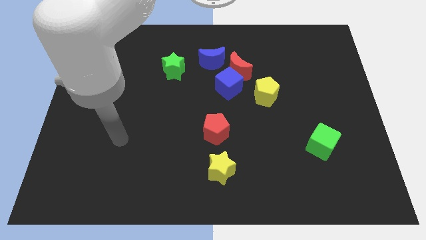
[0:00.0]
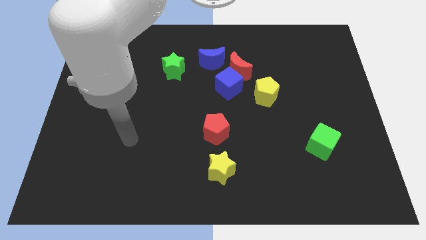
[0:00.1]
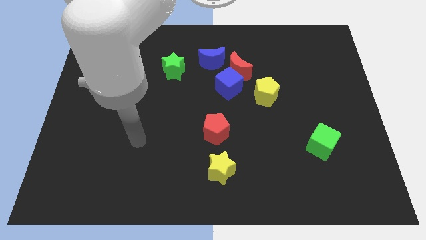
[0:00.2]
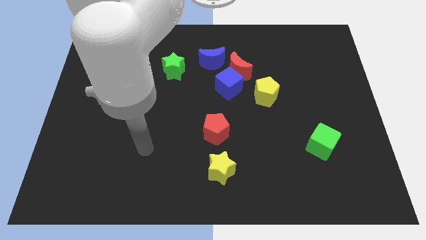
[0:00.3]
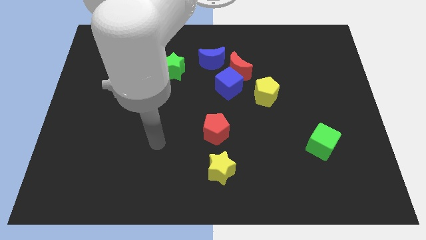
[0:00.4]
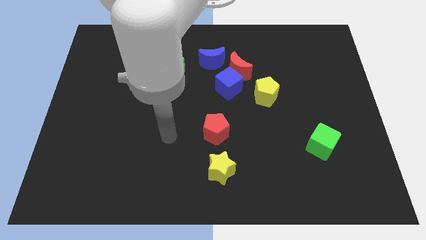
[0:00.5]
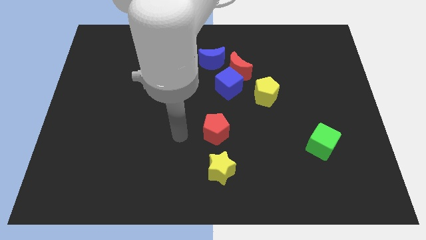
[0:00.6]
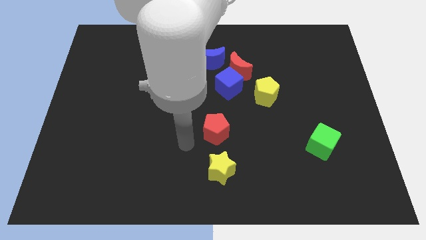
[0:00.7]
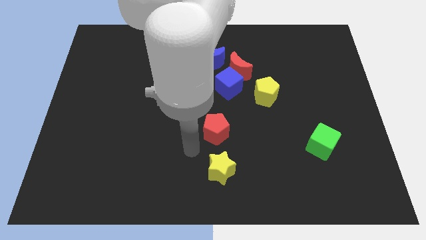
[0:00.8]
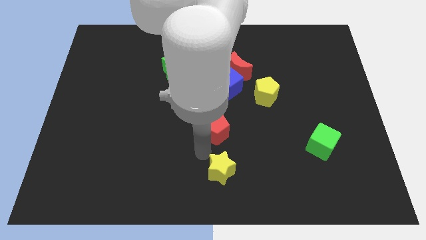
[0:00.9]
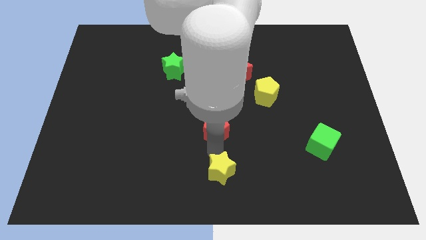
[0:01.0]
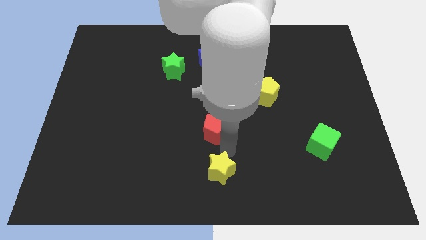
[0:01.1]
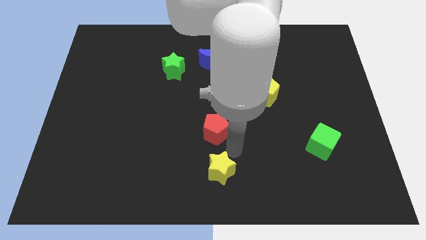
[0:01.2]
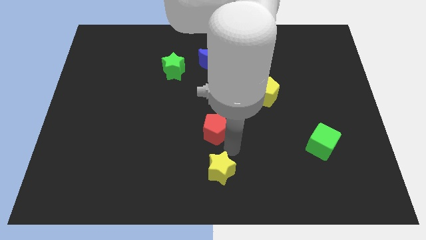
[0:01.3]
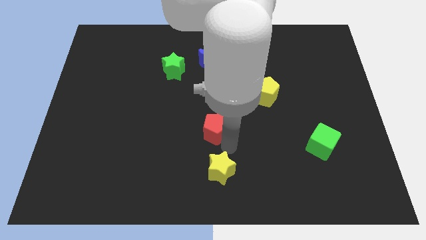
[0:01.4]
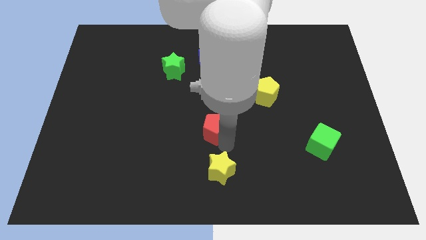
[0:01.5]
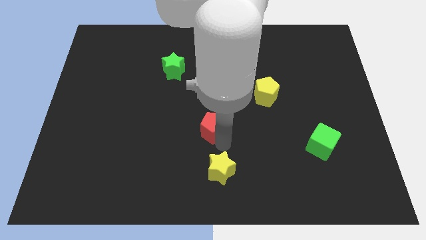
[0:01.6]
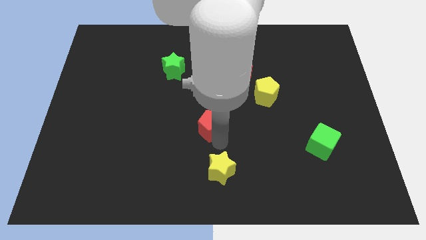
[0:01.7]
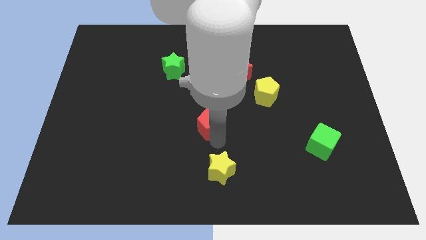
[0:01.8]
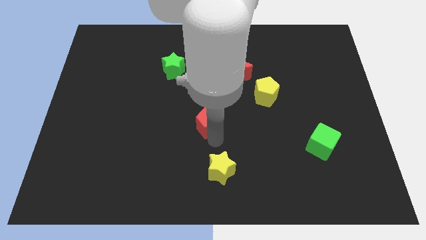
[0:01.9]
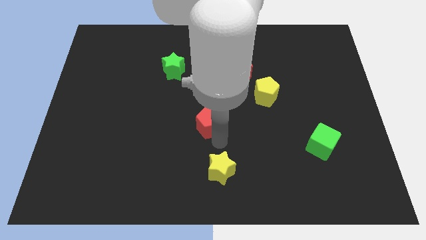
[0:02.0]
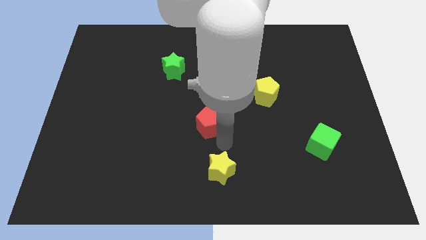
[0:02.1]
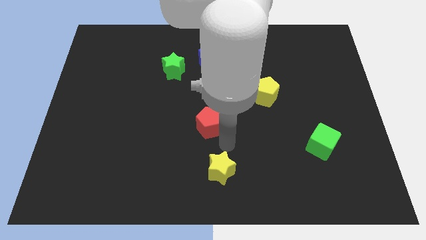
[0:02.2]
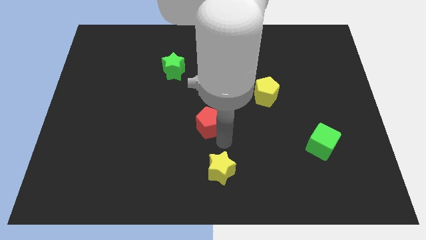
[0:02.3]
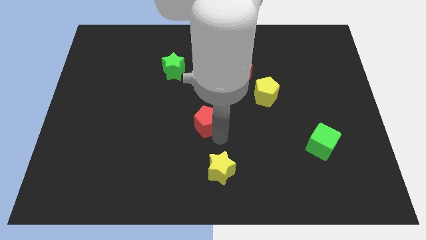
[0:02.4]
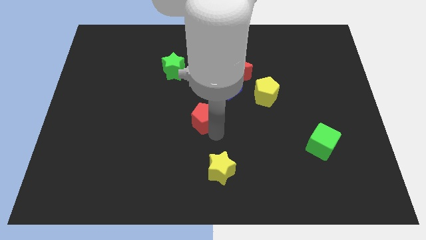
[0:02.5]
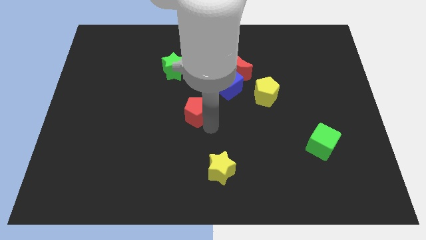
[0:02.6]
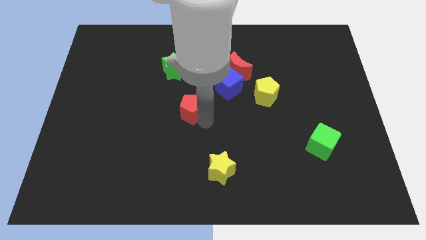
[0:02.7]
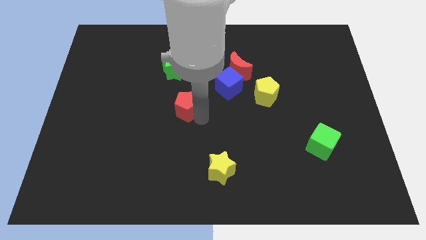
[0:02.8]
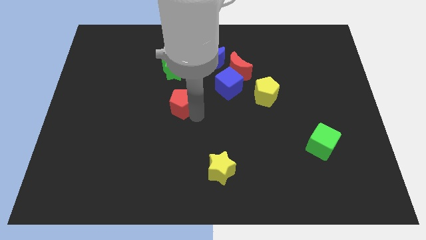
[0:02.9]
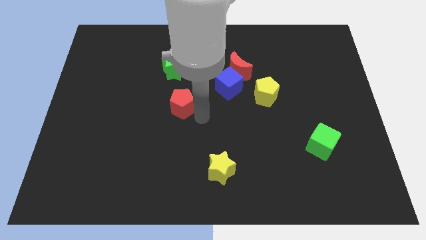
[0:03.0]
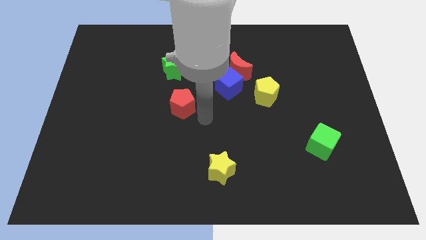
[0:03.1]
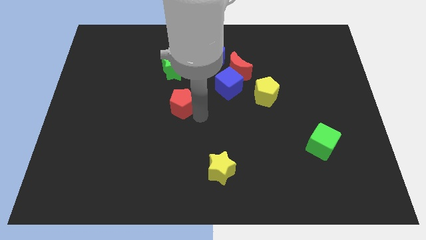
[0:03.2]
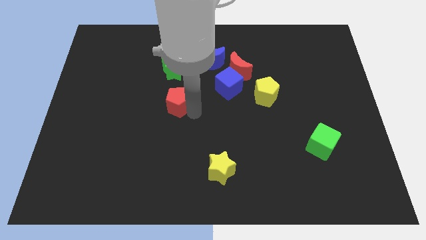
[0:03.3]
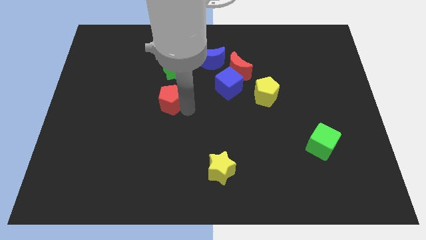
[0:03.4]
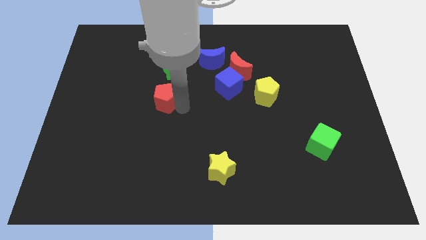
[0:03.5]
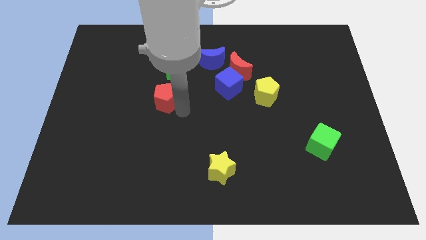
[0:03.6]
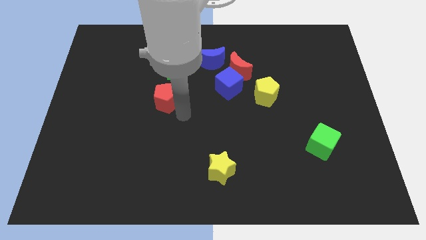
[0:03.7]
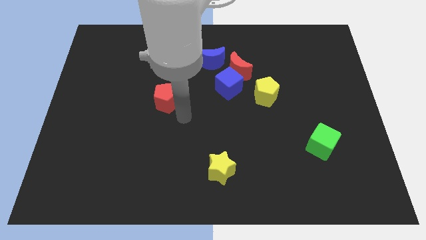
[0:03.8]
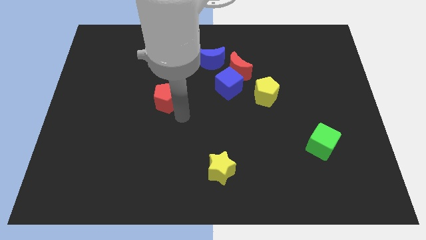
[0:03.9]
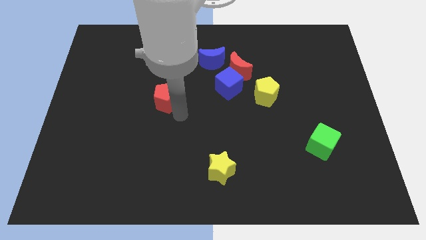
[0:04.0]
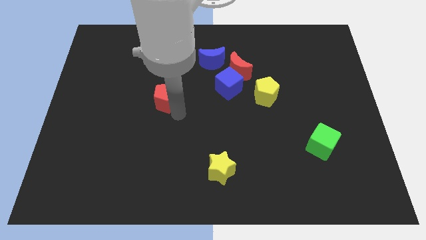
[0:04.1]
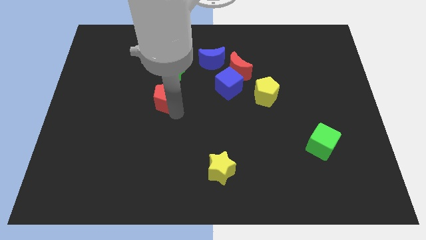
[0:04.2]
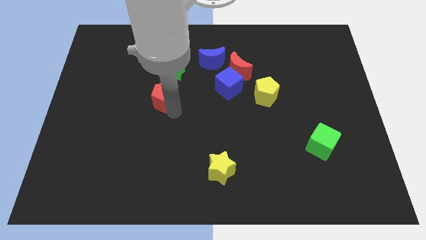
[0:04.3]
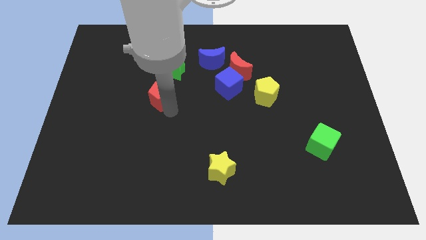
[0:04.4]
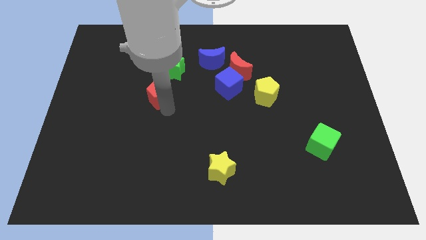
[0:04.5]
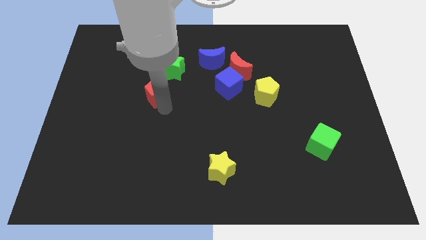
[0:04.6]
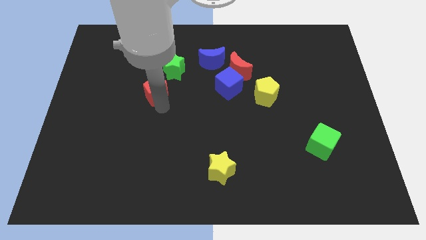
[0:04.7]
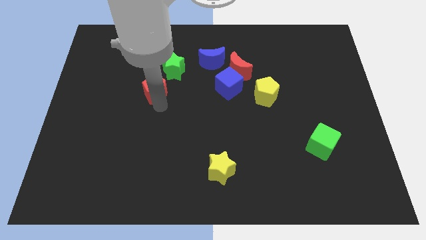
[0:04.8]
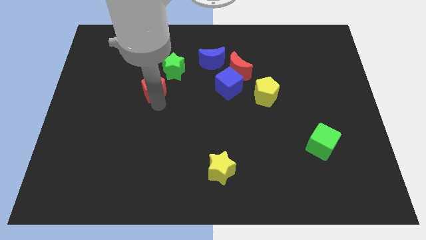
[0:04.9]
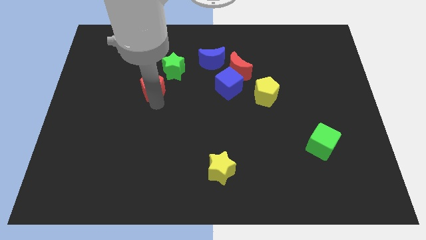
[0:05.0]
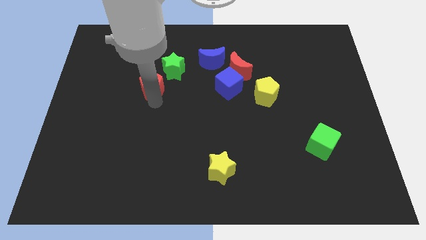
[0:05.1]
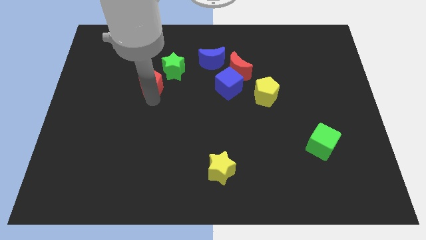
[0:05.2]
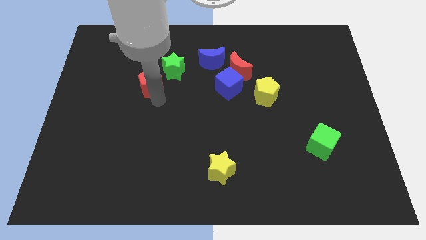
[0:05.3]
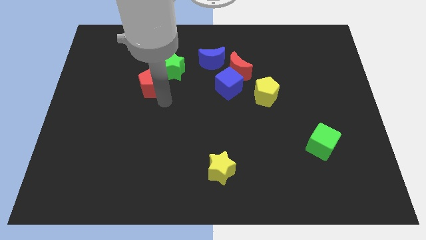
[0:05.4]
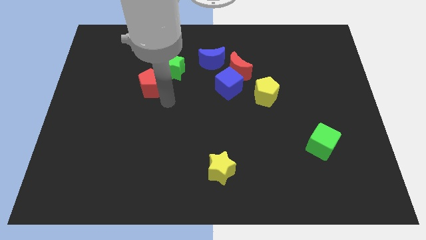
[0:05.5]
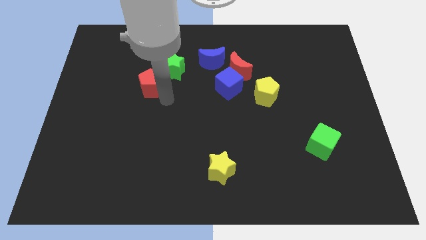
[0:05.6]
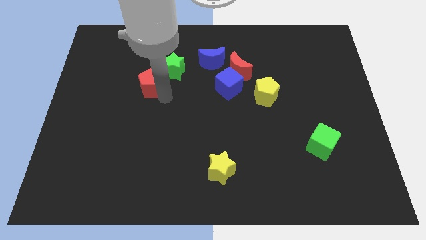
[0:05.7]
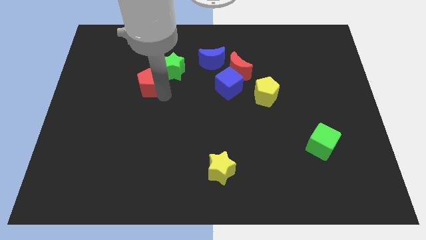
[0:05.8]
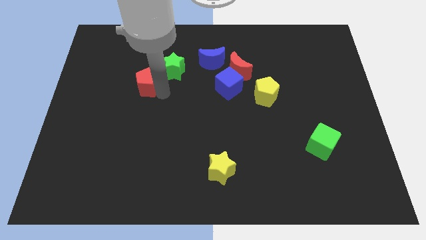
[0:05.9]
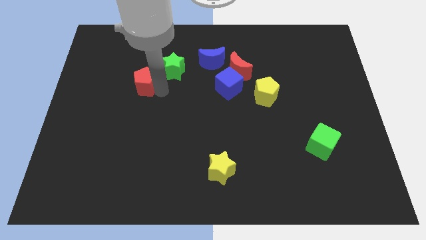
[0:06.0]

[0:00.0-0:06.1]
put the red pentagon to the left of the green star
